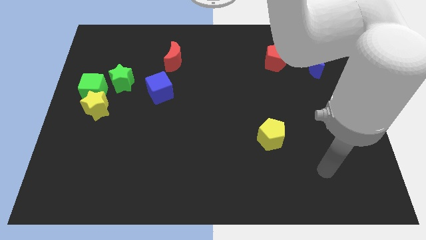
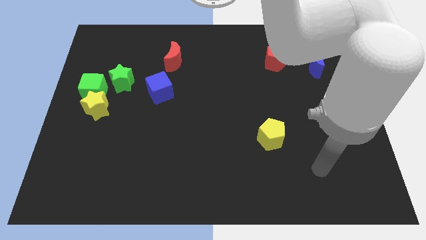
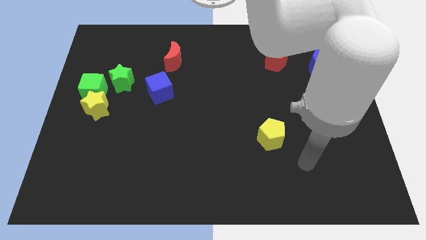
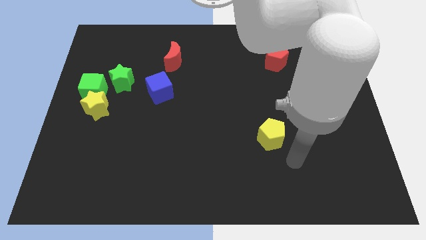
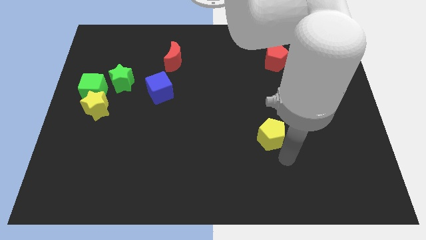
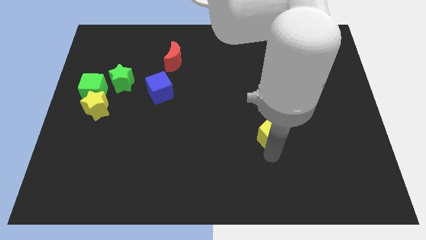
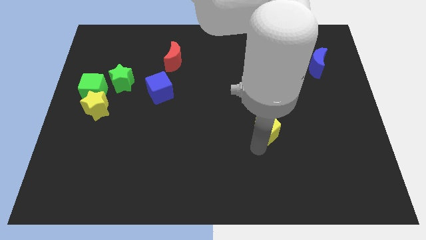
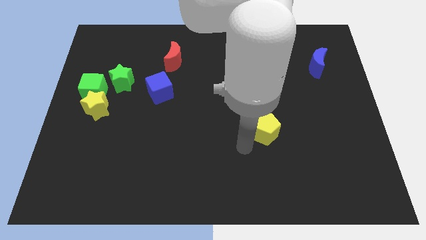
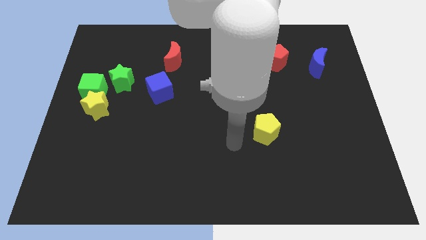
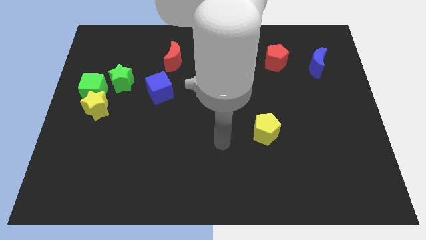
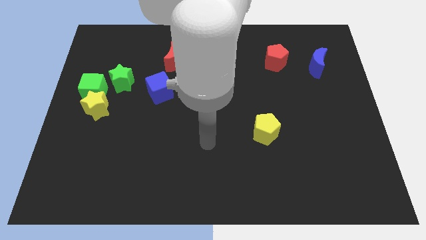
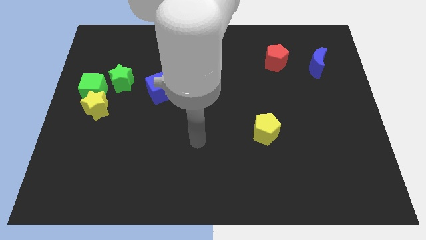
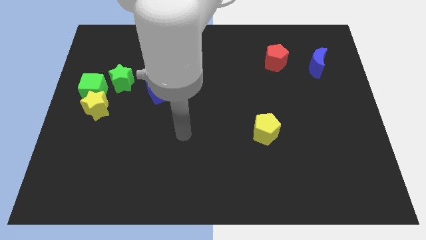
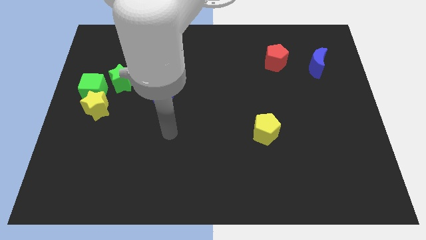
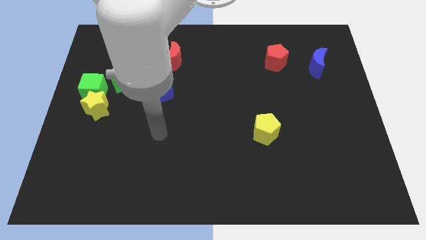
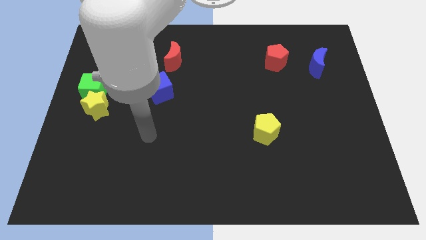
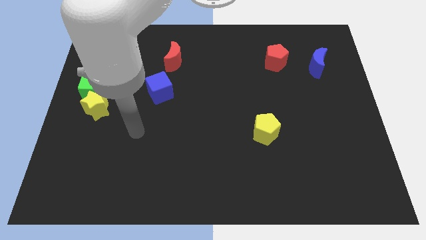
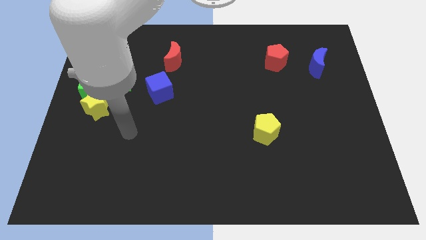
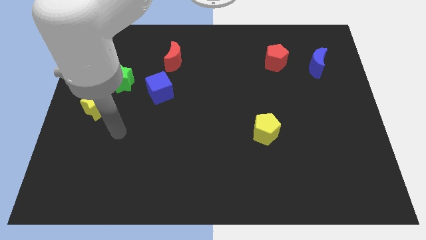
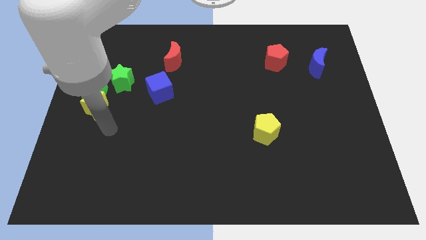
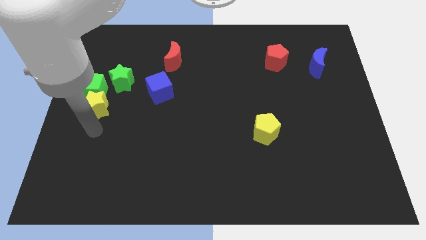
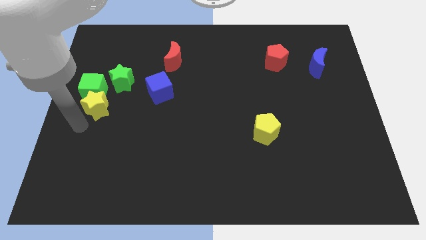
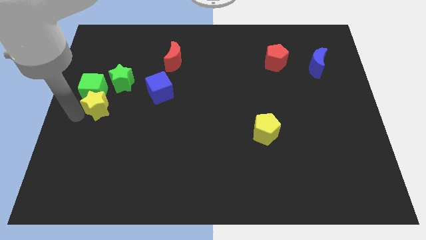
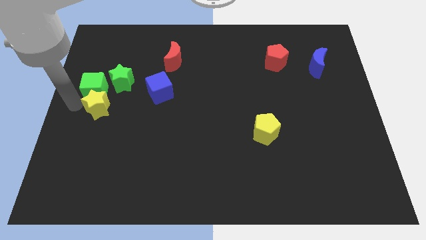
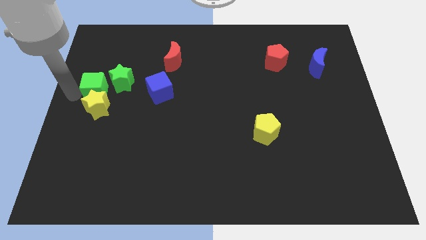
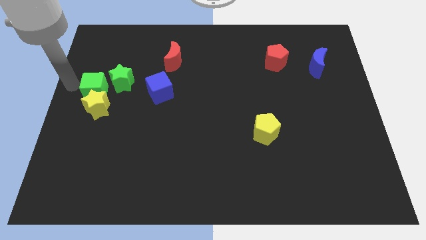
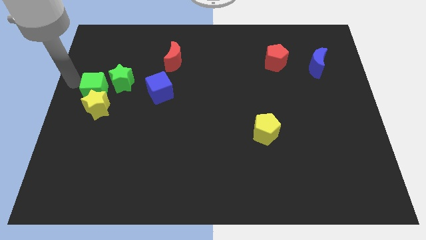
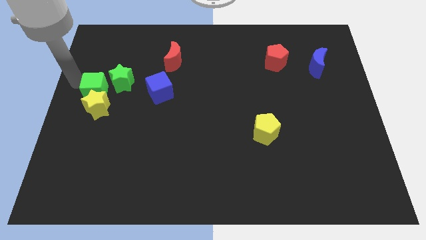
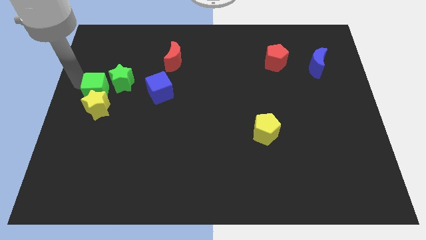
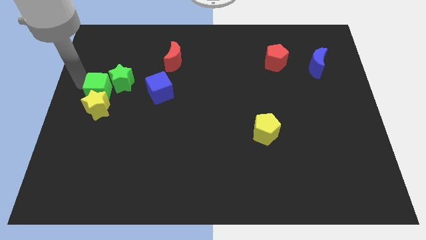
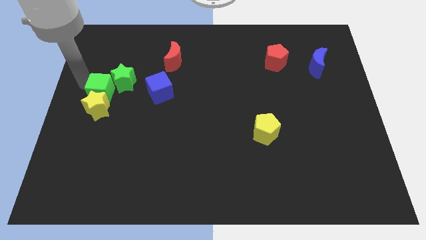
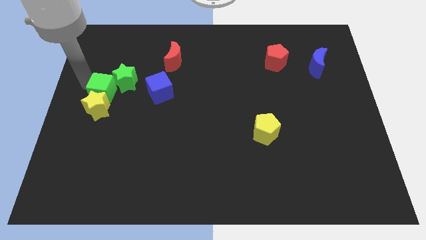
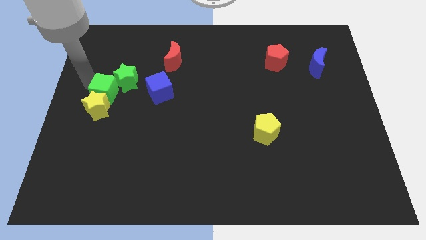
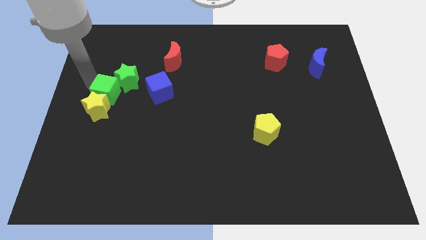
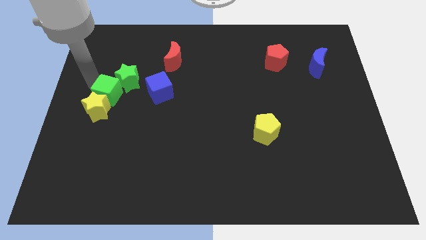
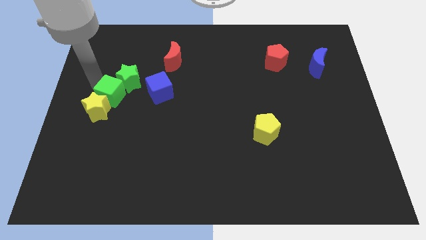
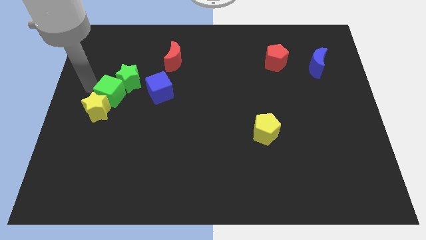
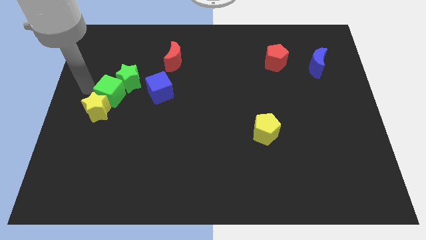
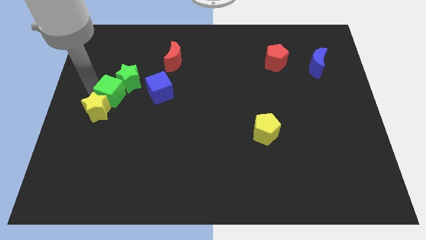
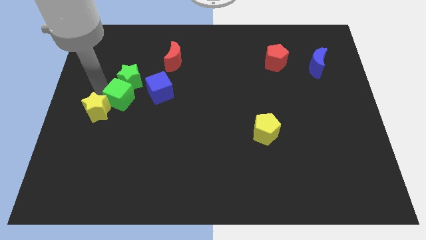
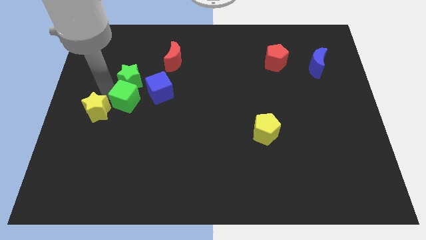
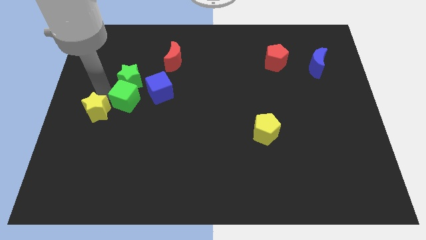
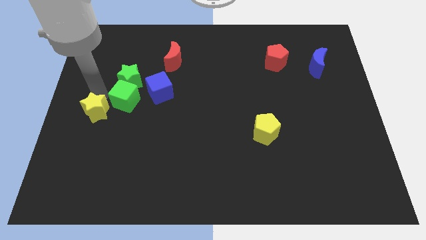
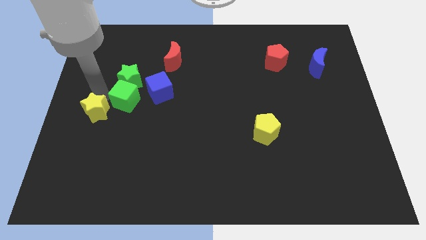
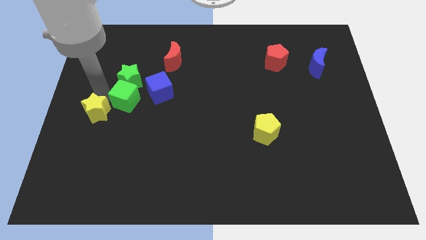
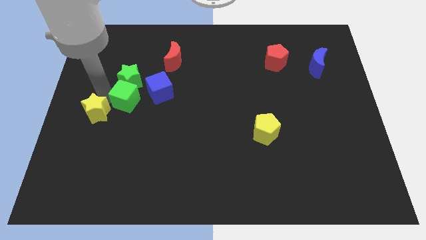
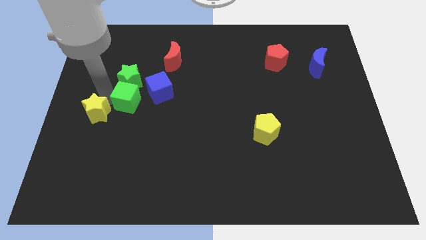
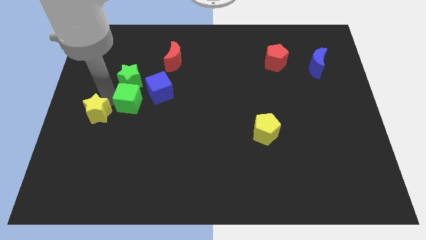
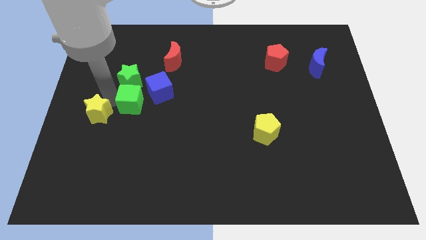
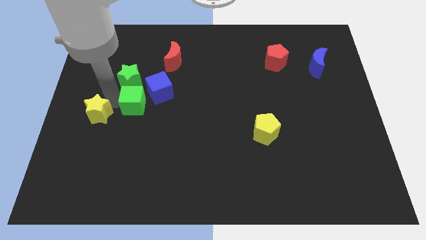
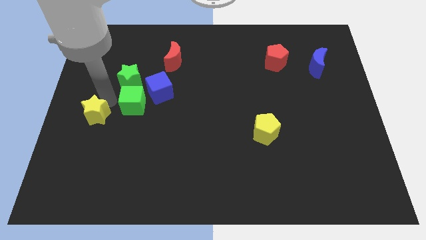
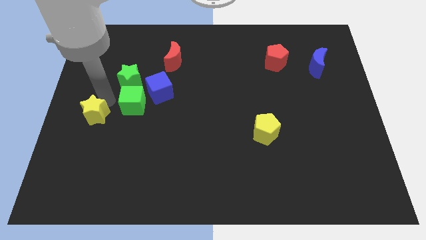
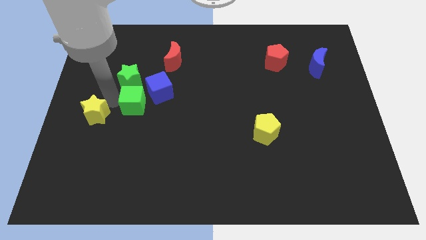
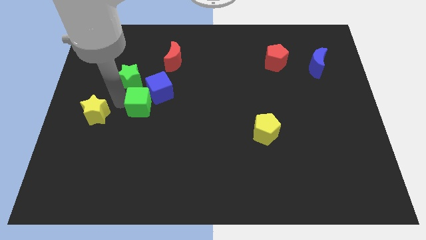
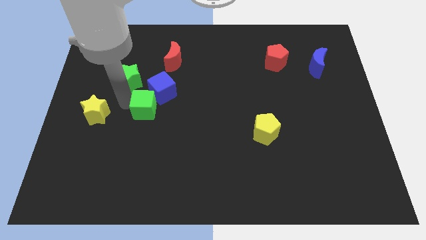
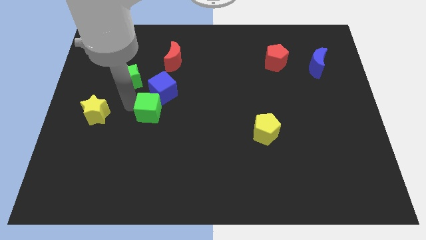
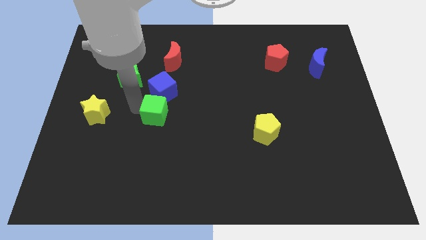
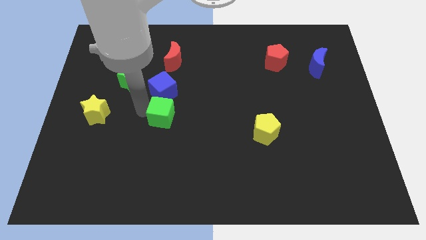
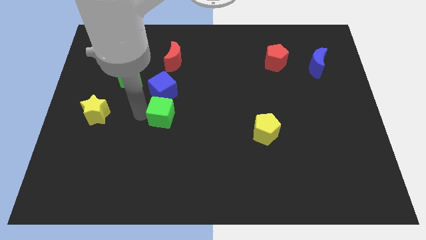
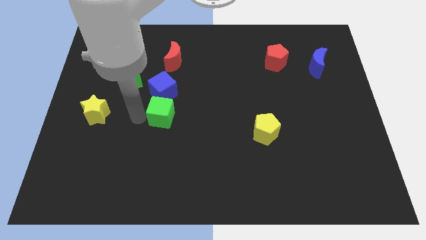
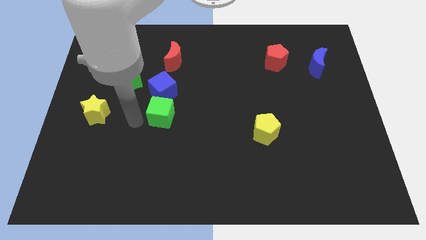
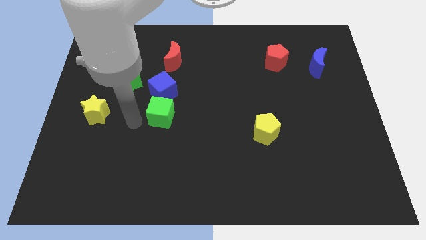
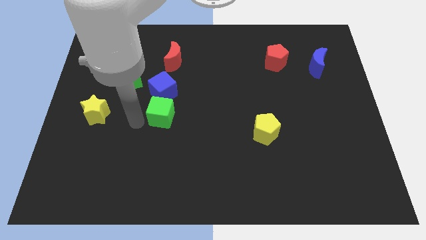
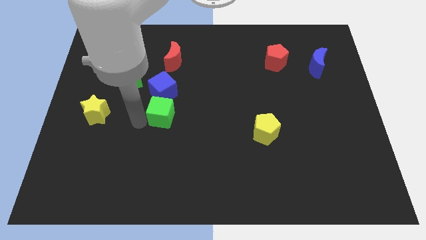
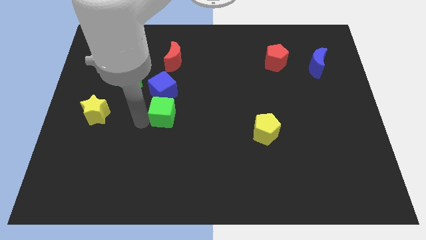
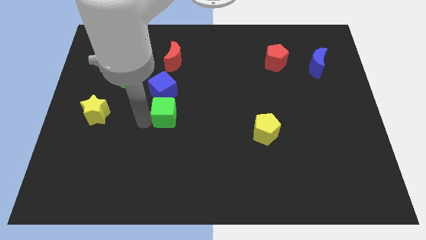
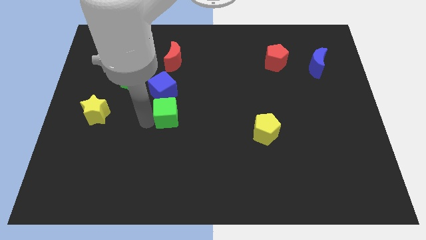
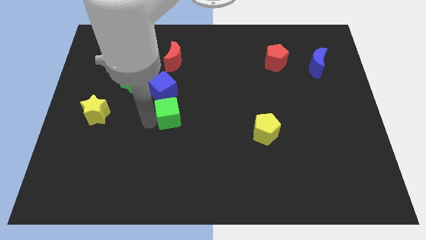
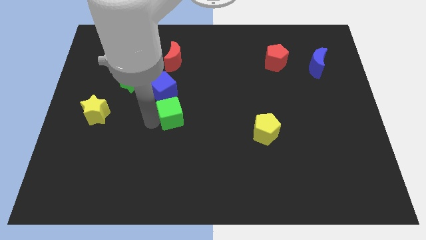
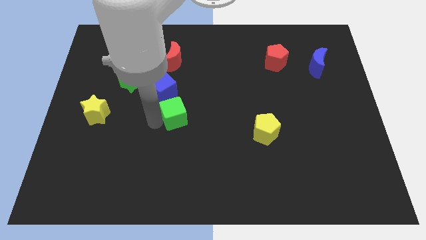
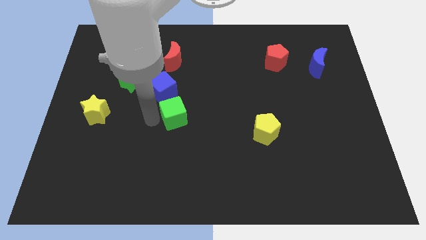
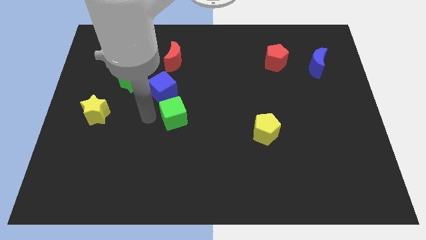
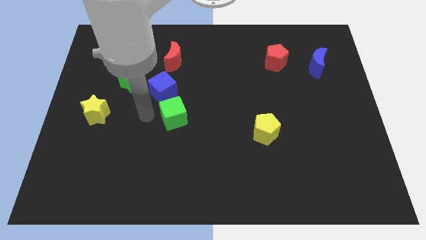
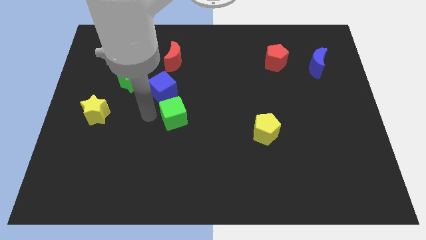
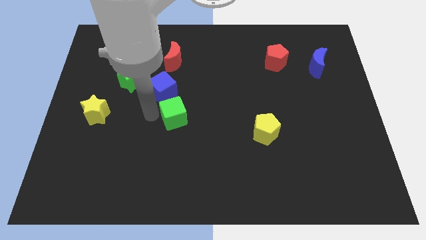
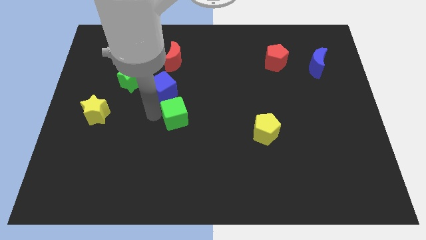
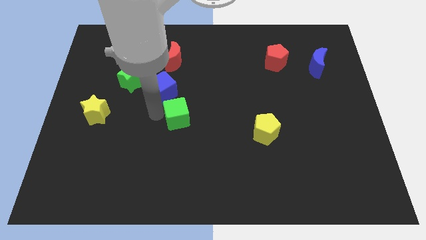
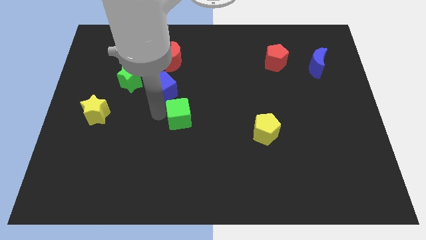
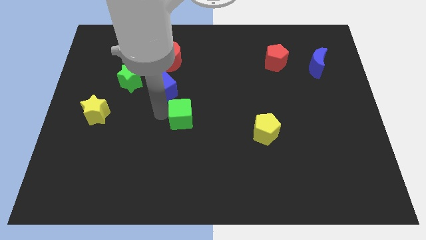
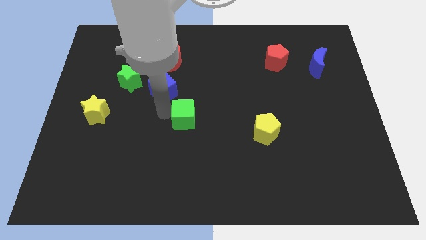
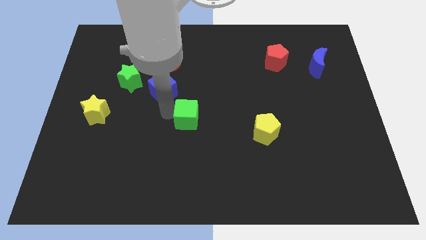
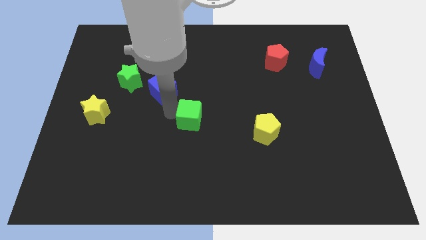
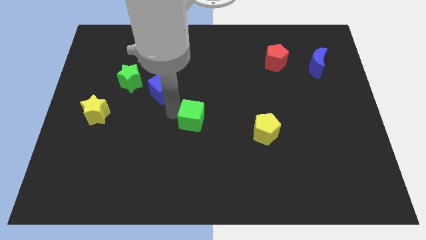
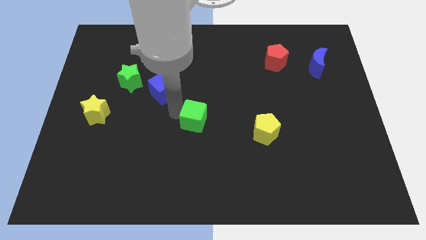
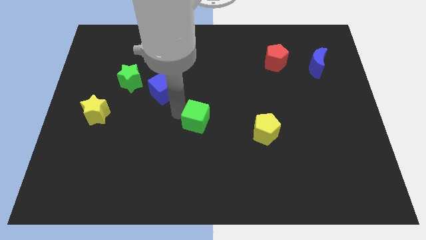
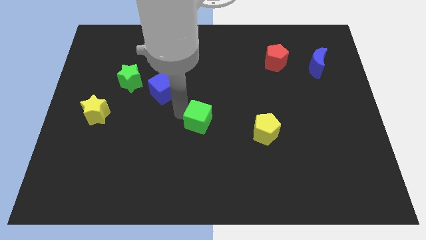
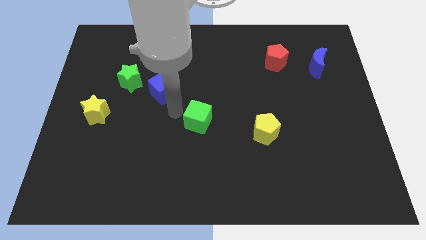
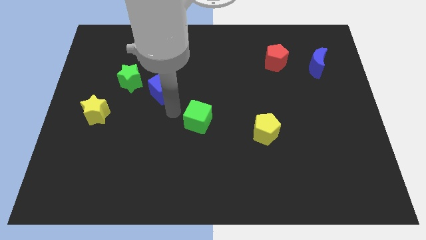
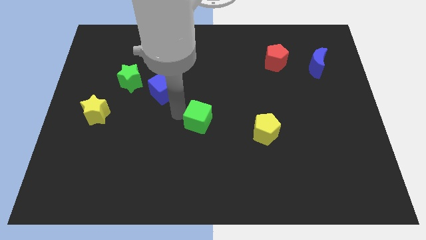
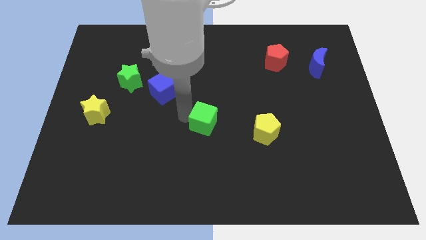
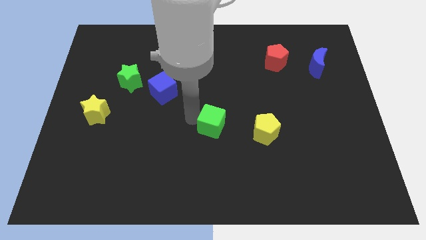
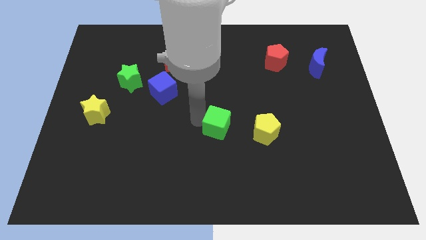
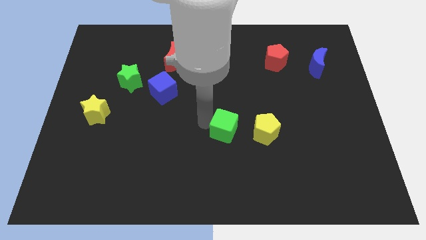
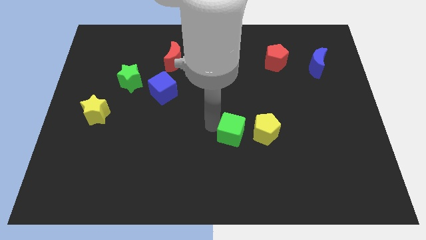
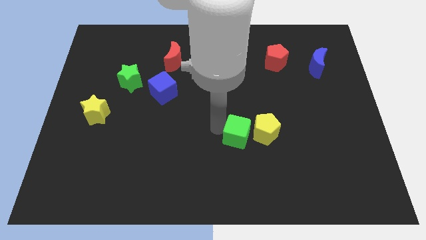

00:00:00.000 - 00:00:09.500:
put the green cube to the yellow pentagon
